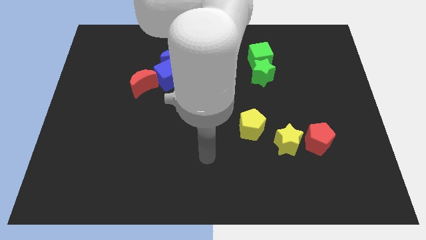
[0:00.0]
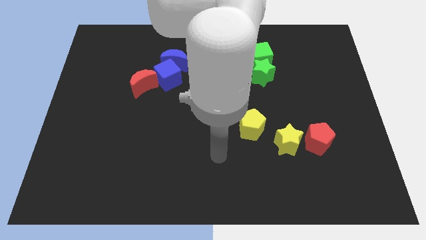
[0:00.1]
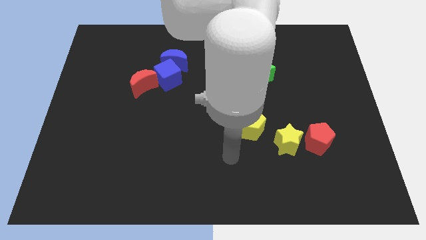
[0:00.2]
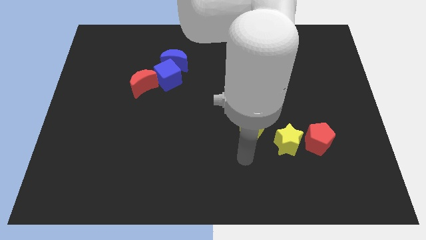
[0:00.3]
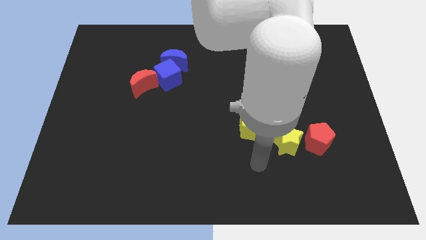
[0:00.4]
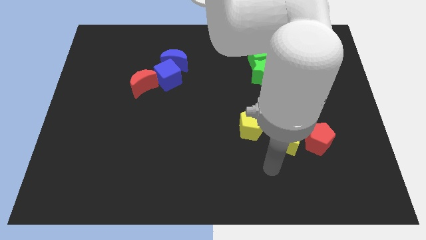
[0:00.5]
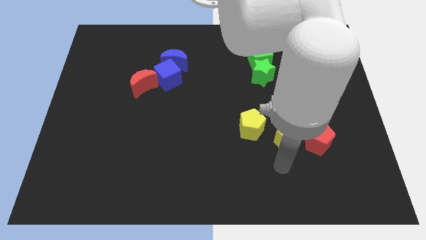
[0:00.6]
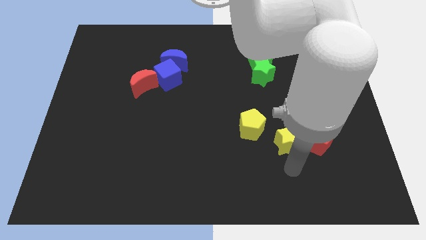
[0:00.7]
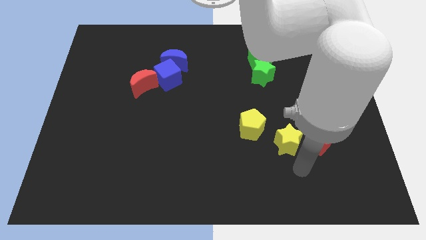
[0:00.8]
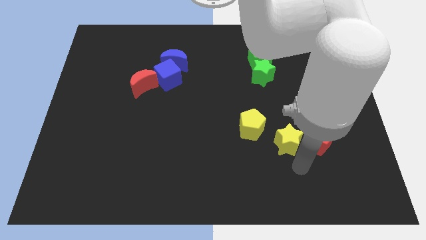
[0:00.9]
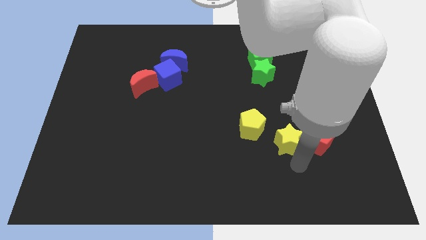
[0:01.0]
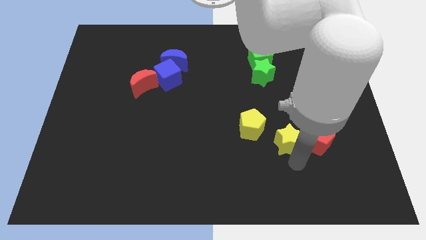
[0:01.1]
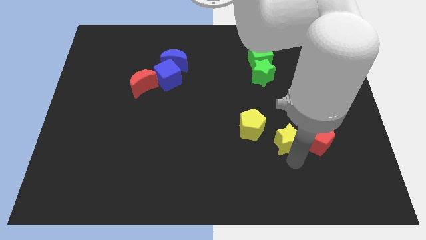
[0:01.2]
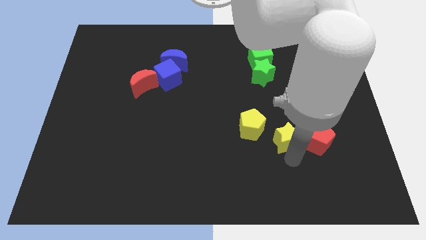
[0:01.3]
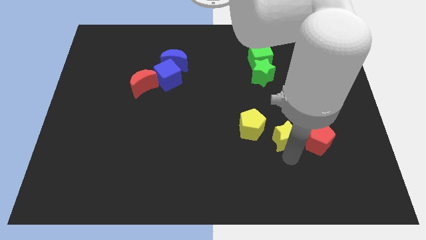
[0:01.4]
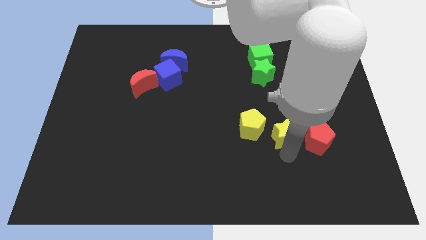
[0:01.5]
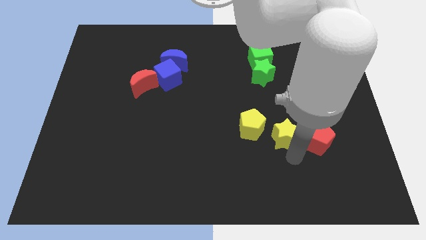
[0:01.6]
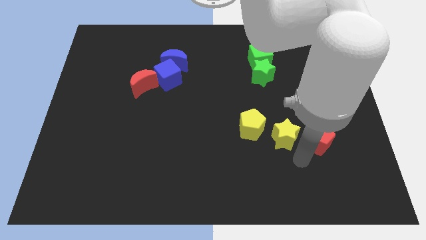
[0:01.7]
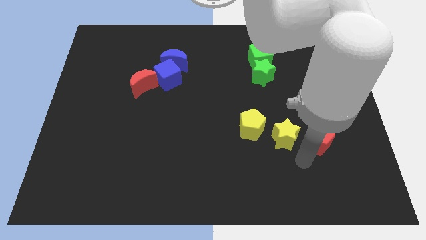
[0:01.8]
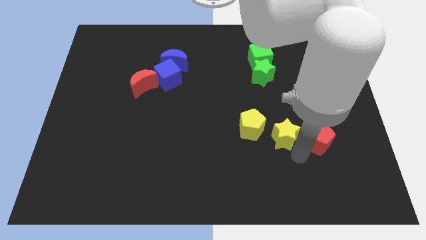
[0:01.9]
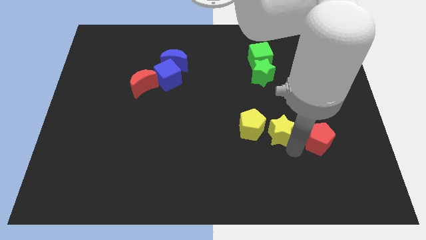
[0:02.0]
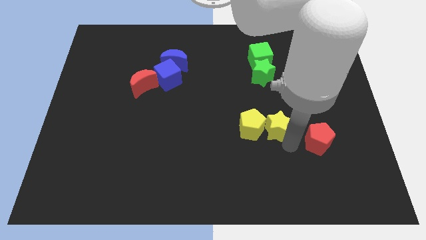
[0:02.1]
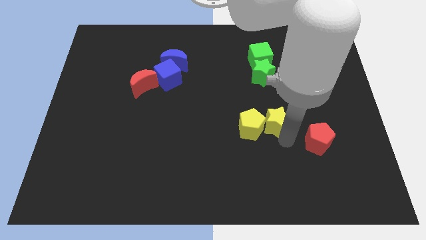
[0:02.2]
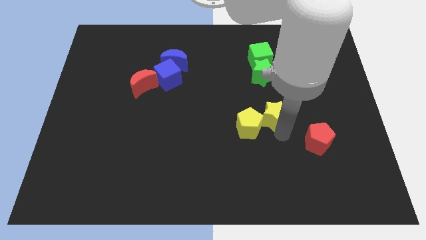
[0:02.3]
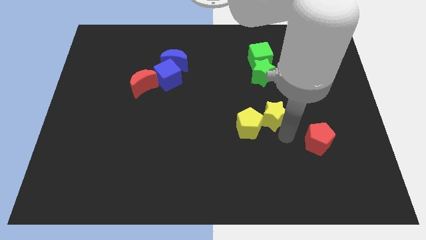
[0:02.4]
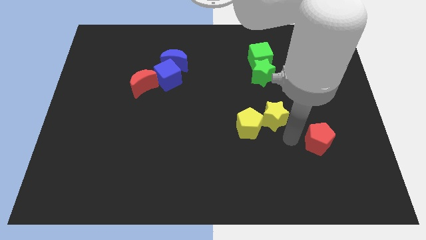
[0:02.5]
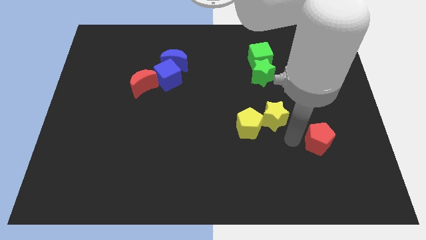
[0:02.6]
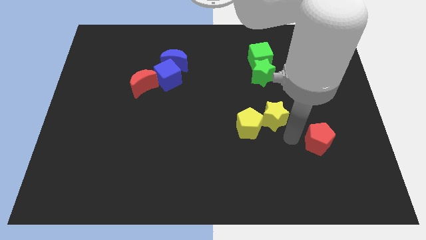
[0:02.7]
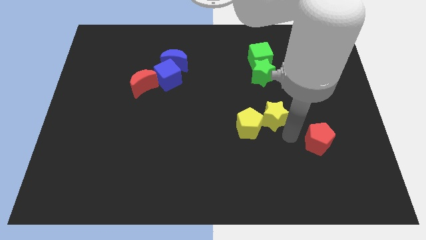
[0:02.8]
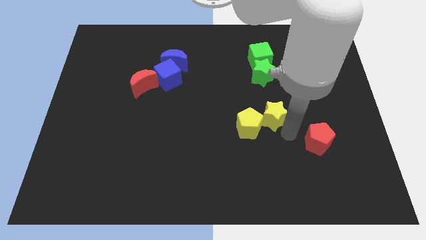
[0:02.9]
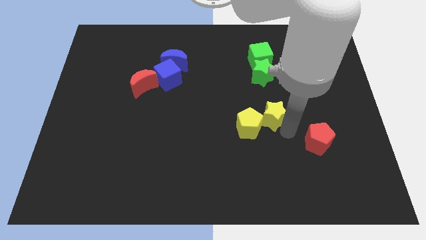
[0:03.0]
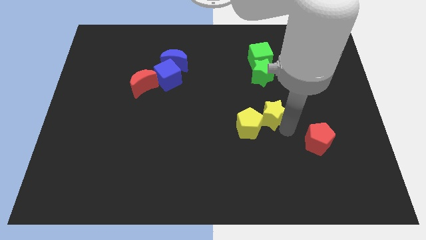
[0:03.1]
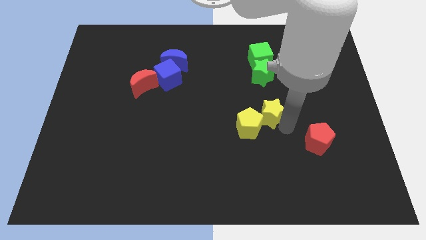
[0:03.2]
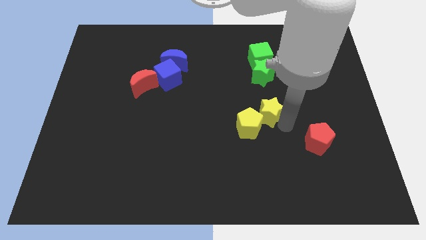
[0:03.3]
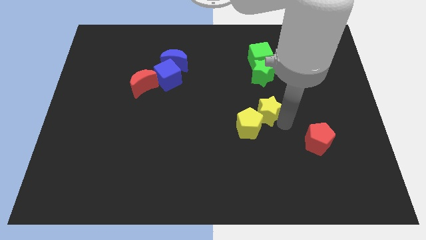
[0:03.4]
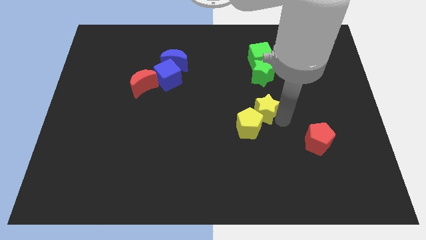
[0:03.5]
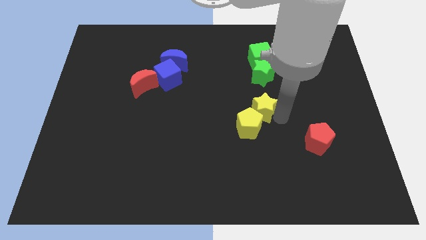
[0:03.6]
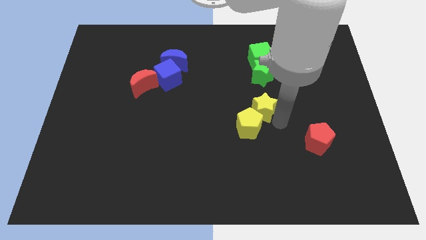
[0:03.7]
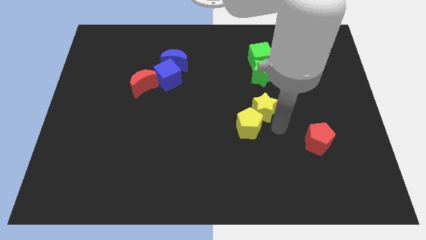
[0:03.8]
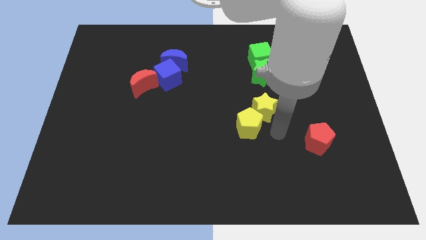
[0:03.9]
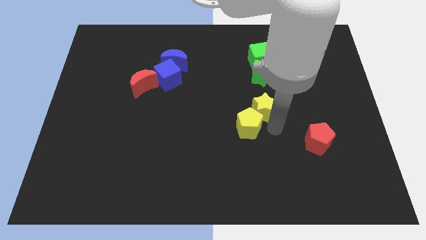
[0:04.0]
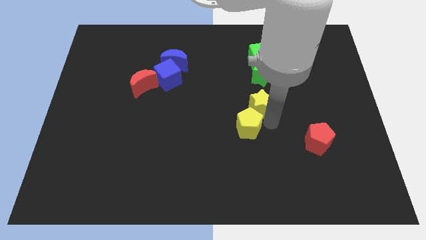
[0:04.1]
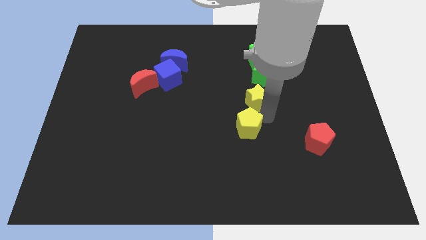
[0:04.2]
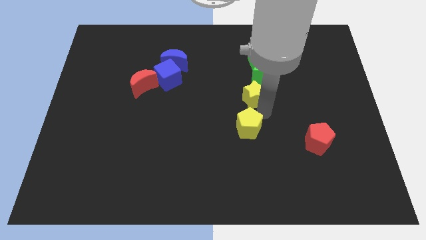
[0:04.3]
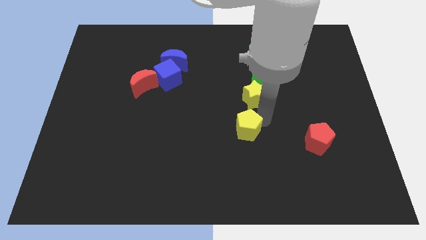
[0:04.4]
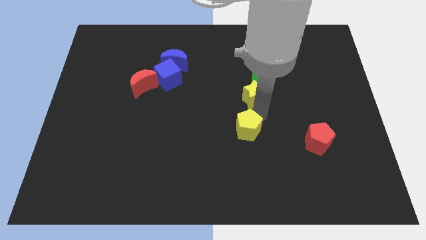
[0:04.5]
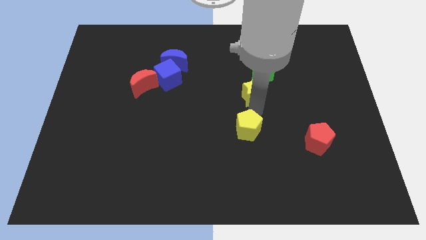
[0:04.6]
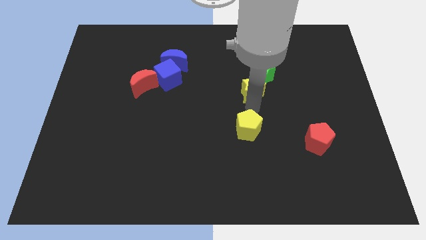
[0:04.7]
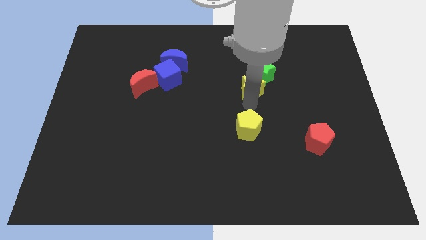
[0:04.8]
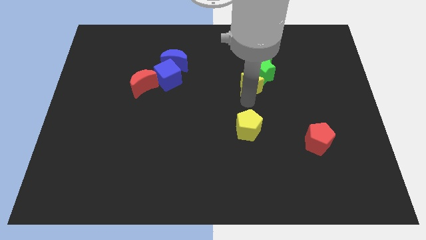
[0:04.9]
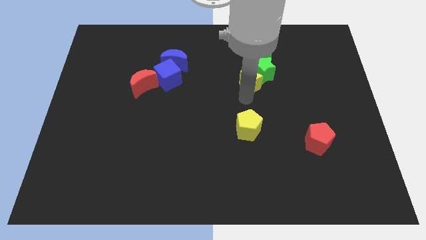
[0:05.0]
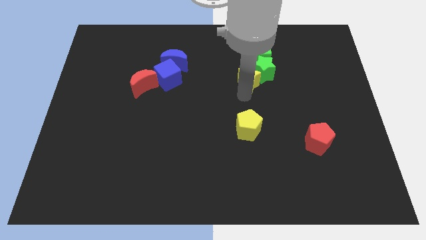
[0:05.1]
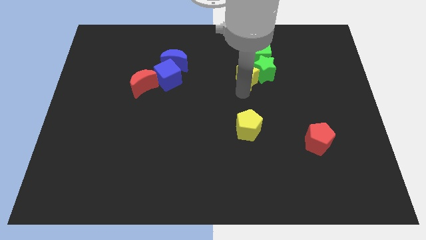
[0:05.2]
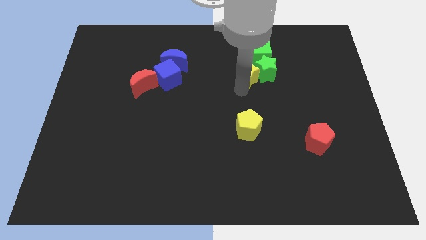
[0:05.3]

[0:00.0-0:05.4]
slide the yellow star to the top left of the green star

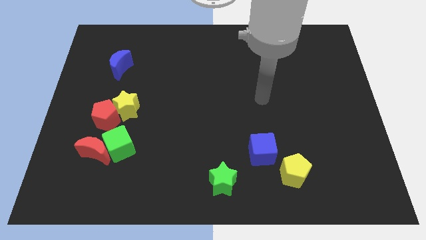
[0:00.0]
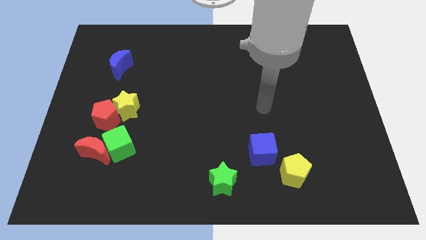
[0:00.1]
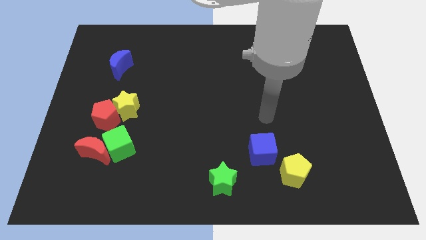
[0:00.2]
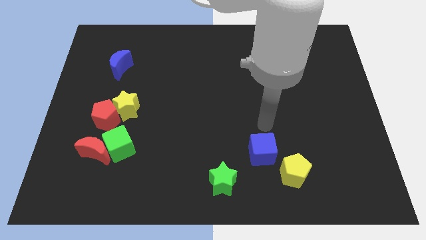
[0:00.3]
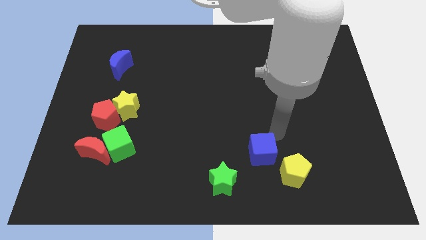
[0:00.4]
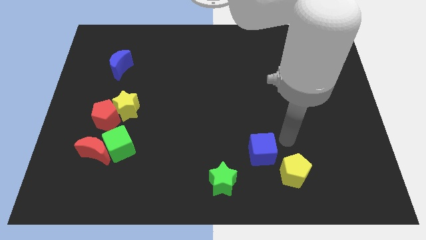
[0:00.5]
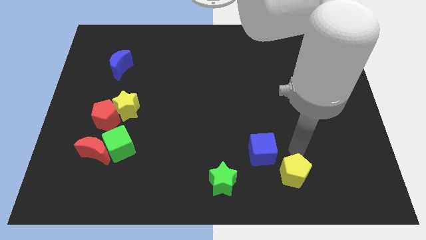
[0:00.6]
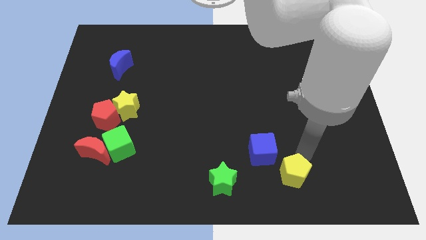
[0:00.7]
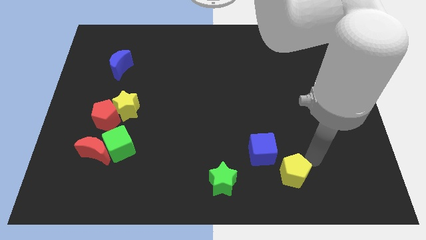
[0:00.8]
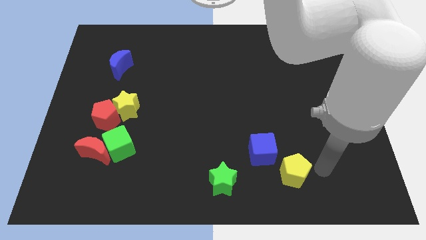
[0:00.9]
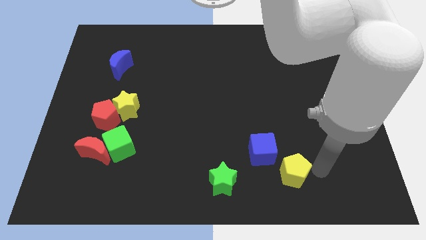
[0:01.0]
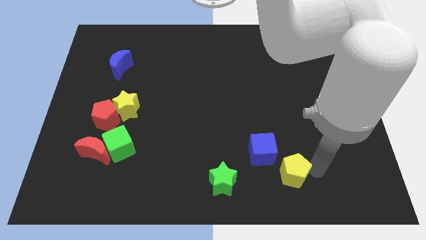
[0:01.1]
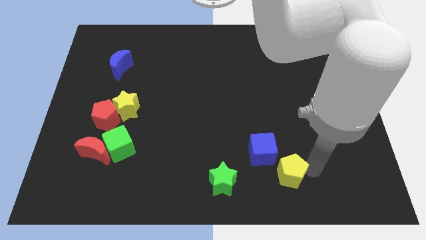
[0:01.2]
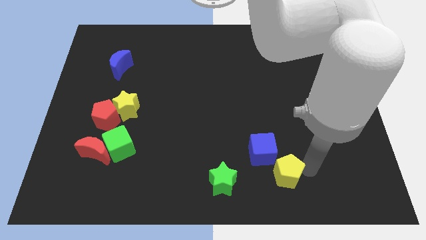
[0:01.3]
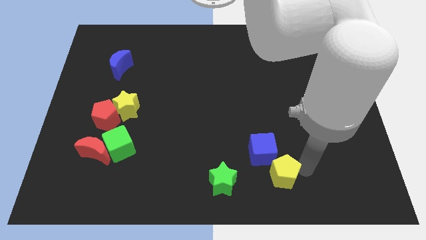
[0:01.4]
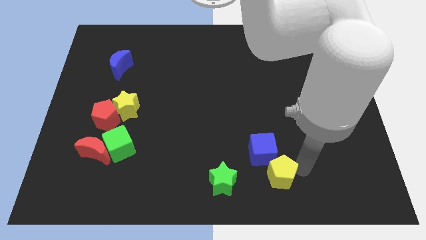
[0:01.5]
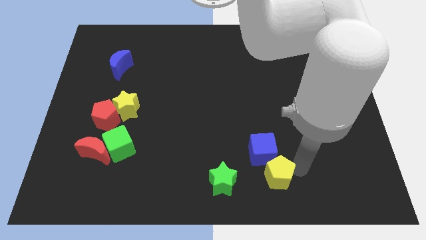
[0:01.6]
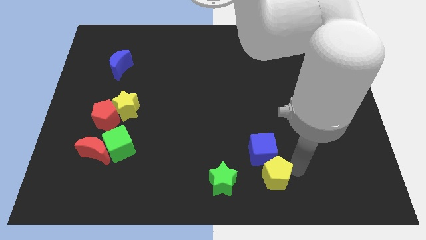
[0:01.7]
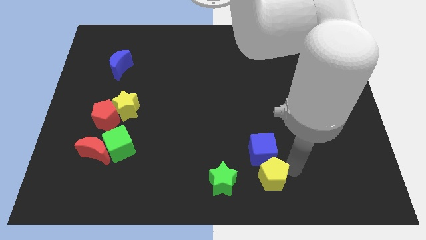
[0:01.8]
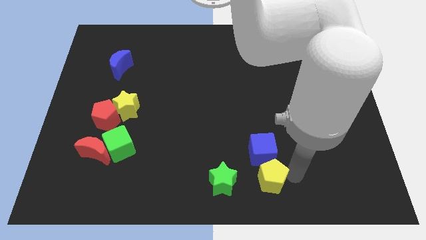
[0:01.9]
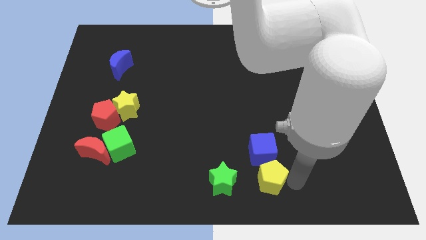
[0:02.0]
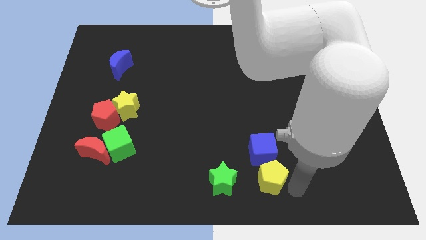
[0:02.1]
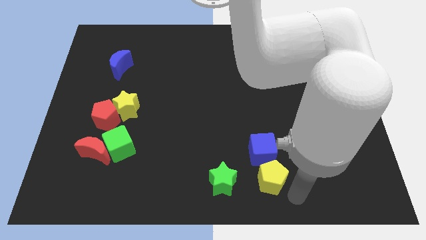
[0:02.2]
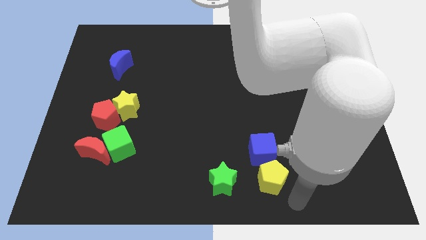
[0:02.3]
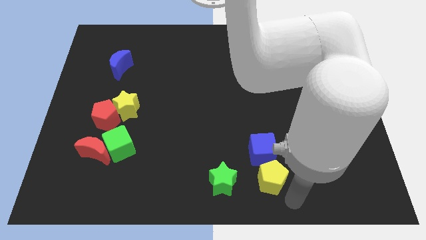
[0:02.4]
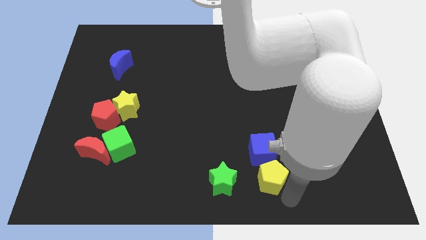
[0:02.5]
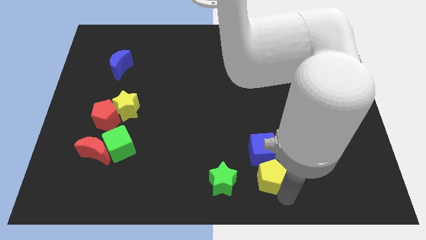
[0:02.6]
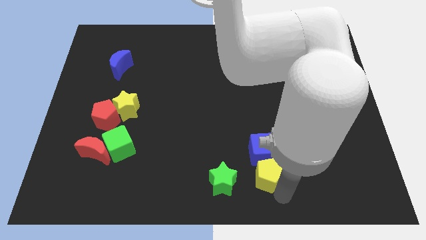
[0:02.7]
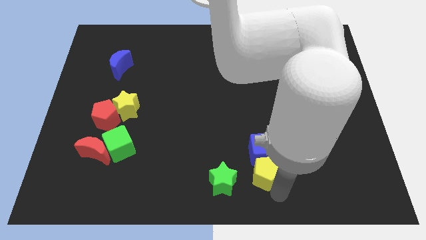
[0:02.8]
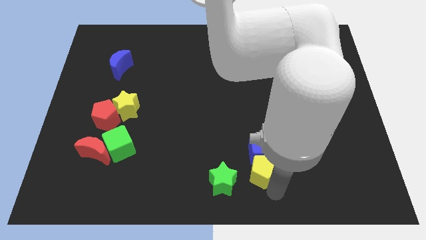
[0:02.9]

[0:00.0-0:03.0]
slide the yellow pentagon diagonally up and to the right of the green star
